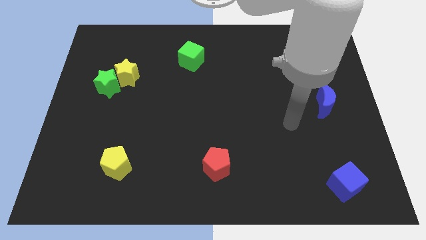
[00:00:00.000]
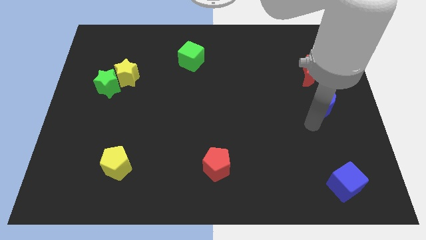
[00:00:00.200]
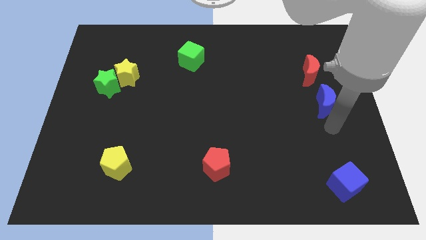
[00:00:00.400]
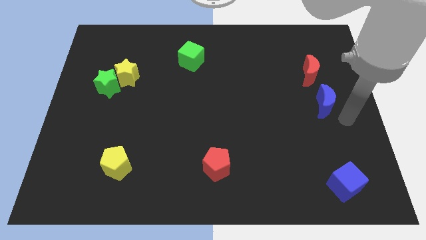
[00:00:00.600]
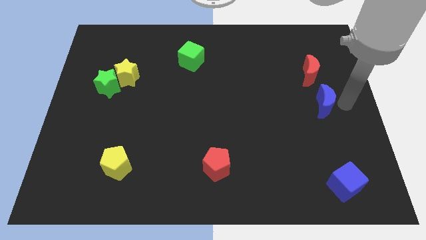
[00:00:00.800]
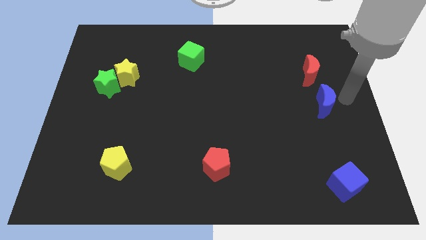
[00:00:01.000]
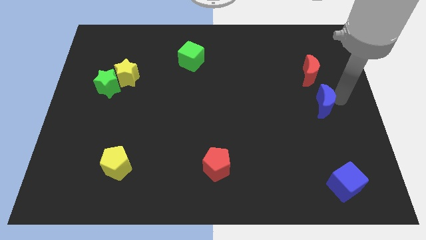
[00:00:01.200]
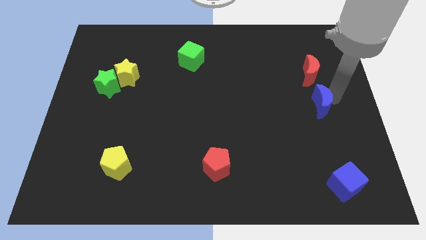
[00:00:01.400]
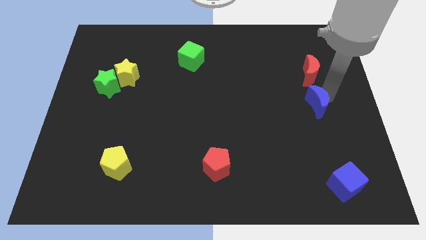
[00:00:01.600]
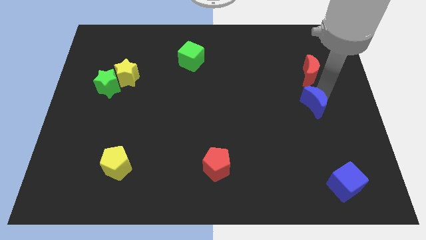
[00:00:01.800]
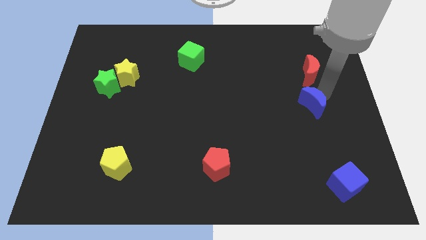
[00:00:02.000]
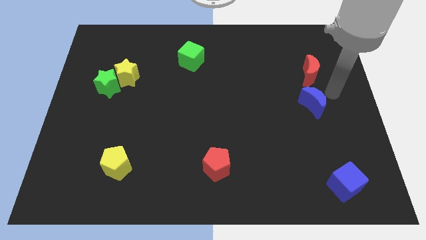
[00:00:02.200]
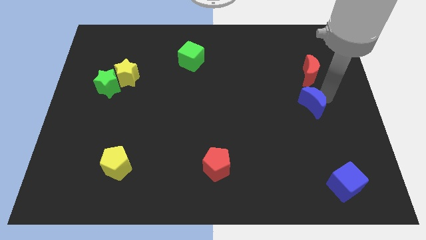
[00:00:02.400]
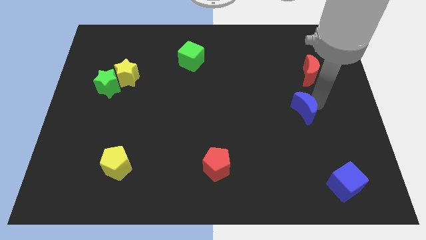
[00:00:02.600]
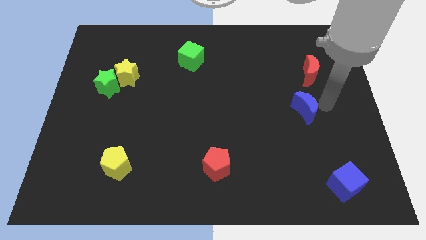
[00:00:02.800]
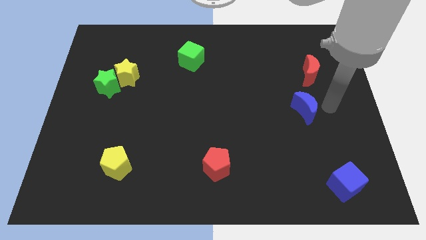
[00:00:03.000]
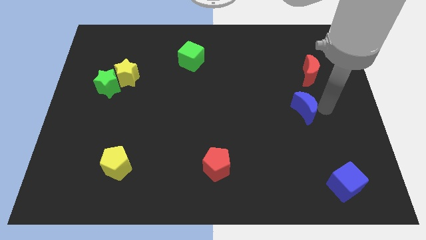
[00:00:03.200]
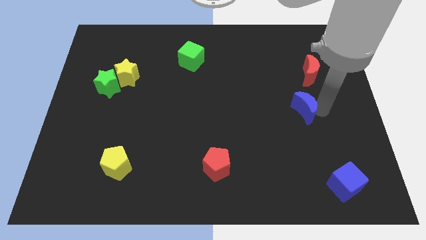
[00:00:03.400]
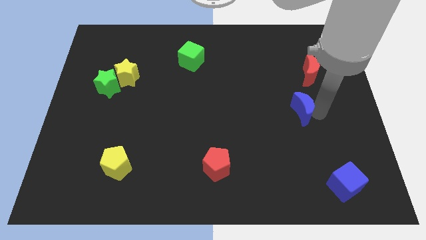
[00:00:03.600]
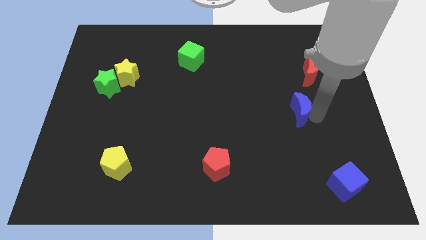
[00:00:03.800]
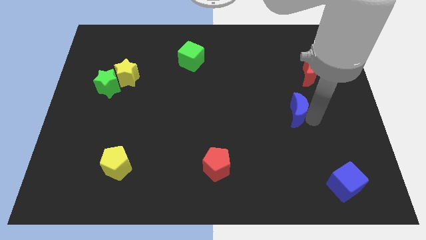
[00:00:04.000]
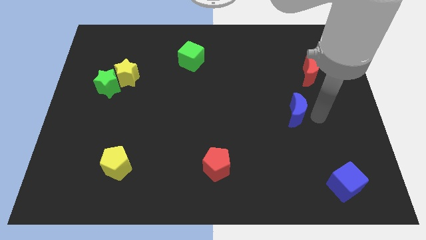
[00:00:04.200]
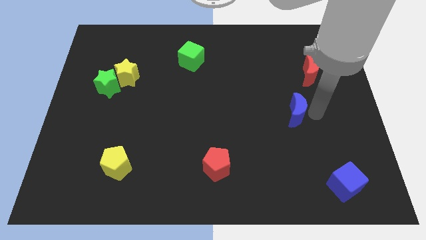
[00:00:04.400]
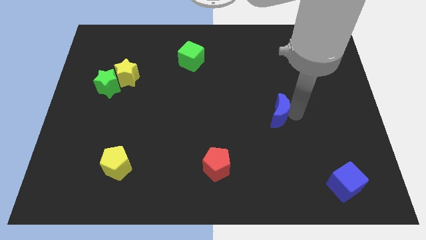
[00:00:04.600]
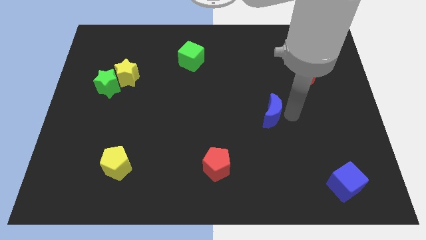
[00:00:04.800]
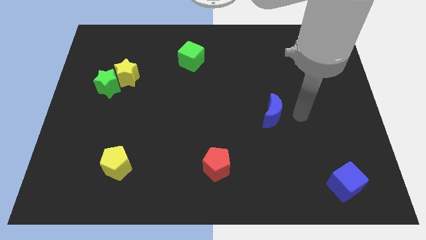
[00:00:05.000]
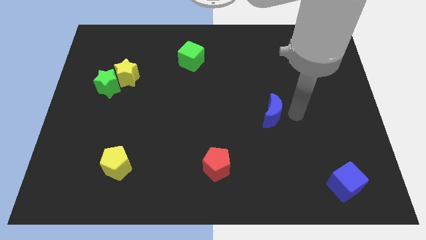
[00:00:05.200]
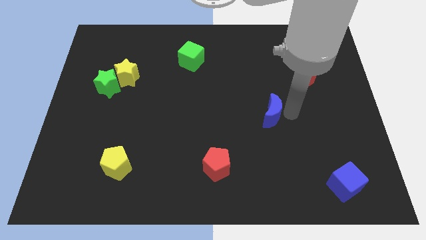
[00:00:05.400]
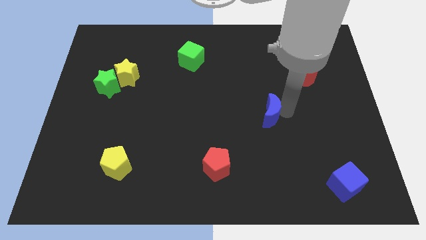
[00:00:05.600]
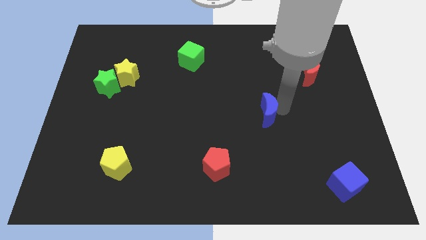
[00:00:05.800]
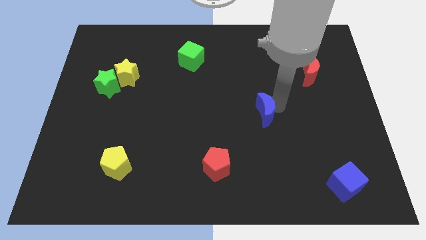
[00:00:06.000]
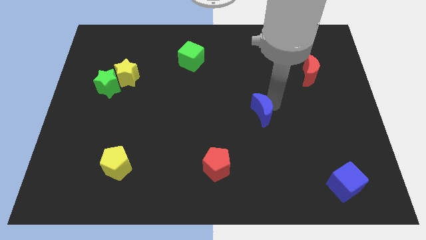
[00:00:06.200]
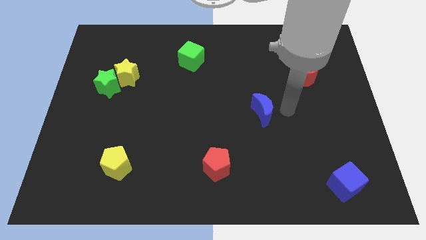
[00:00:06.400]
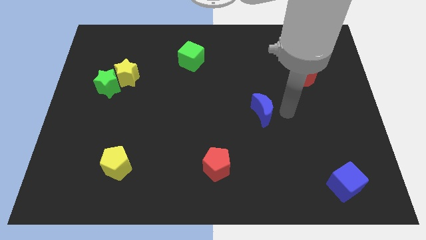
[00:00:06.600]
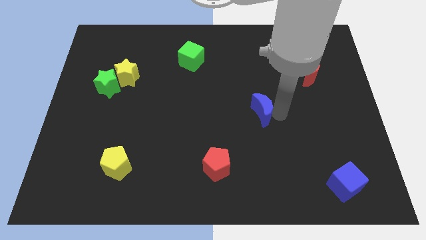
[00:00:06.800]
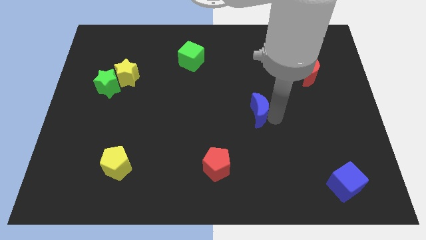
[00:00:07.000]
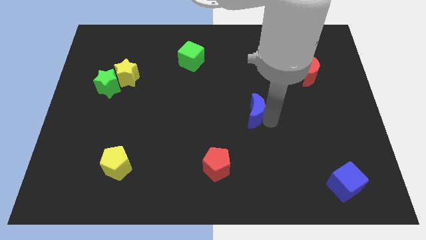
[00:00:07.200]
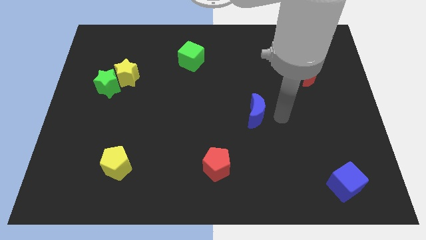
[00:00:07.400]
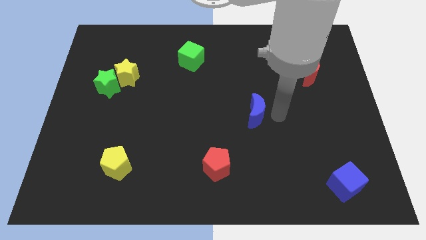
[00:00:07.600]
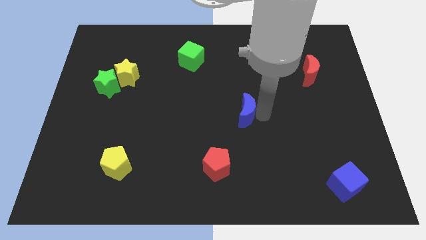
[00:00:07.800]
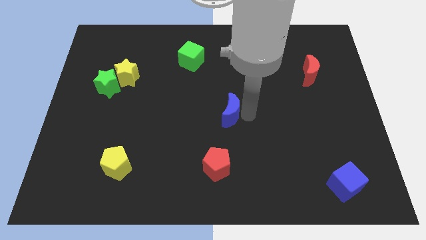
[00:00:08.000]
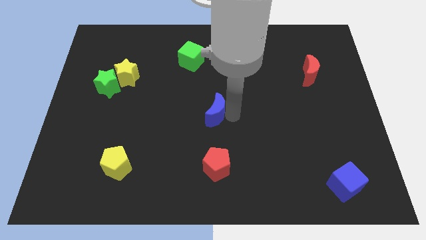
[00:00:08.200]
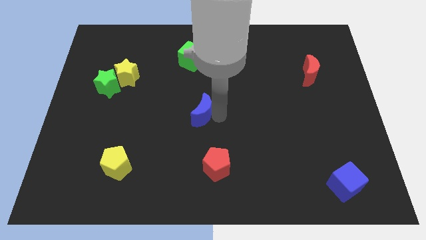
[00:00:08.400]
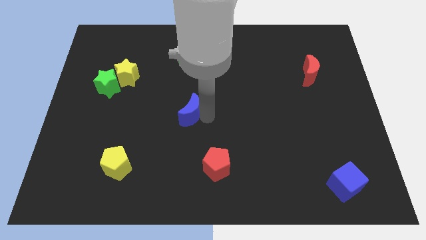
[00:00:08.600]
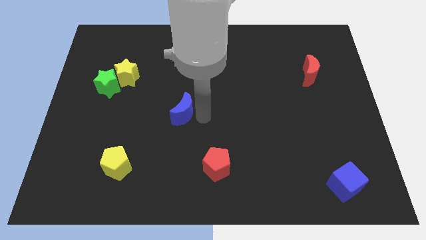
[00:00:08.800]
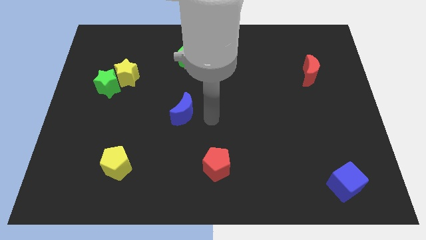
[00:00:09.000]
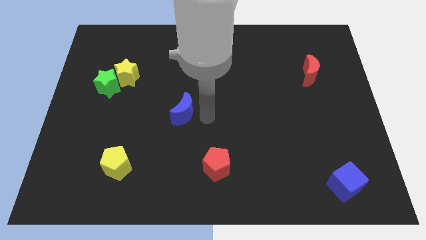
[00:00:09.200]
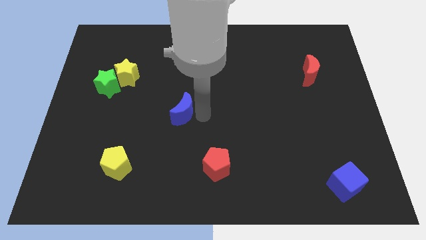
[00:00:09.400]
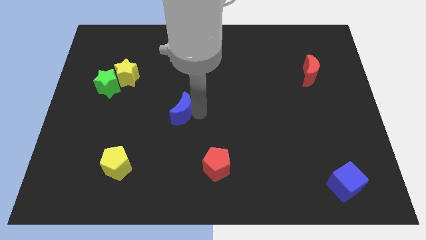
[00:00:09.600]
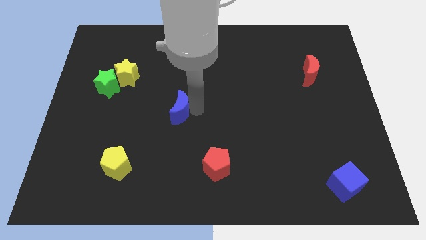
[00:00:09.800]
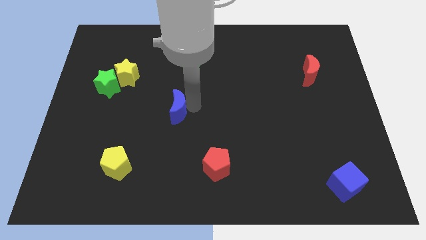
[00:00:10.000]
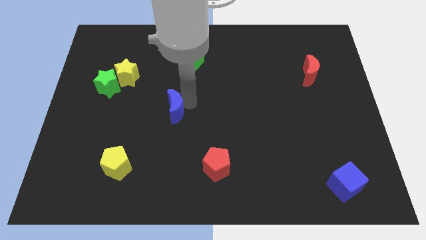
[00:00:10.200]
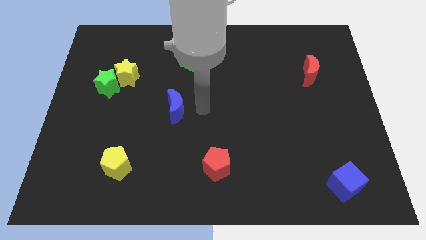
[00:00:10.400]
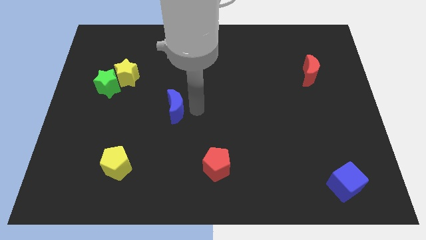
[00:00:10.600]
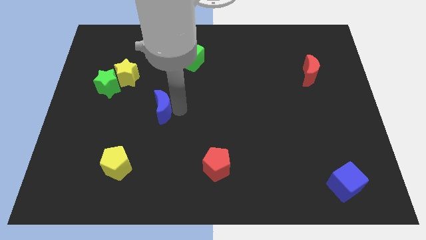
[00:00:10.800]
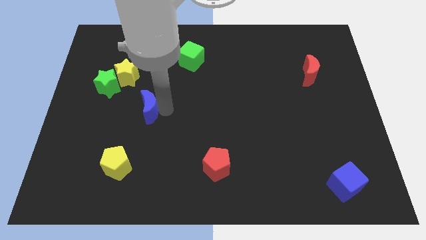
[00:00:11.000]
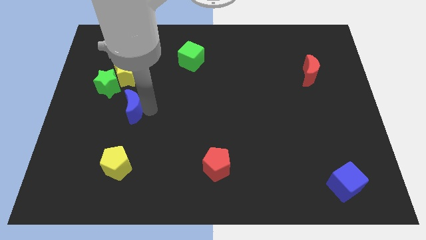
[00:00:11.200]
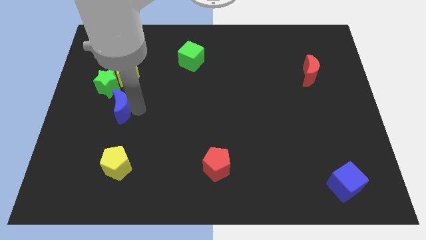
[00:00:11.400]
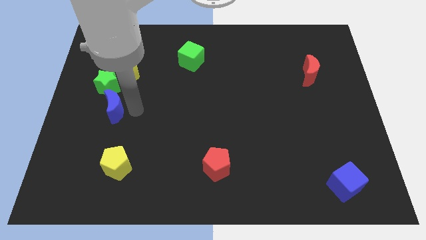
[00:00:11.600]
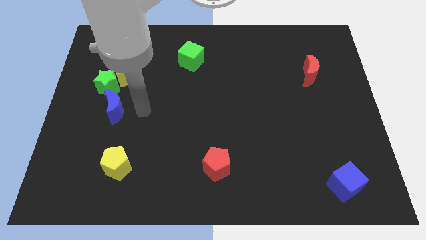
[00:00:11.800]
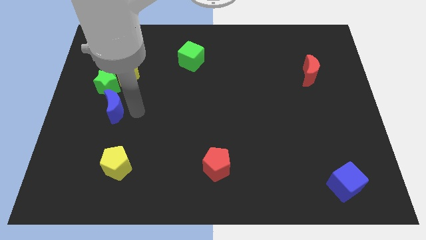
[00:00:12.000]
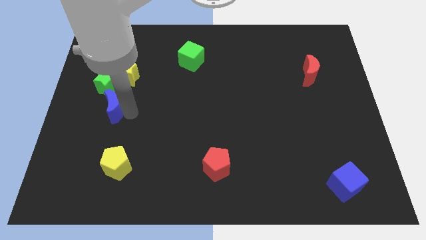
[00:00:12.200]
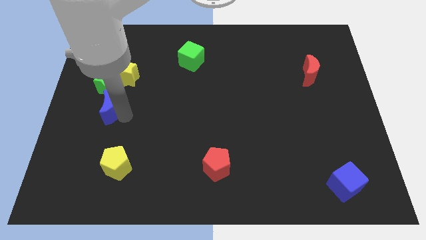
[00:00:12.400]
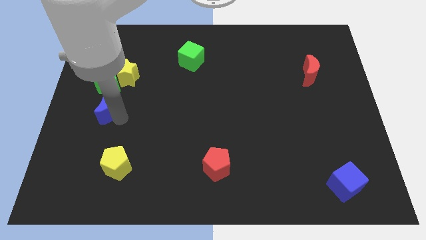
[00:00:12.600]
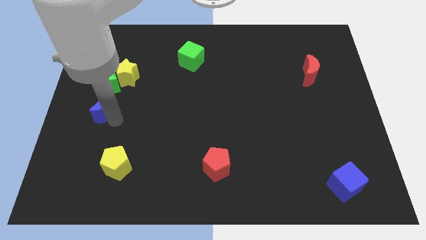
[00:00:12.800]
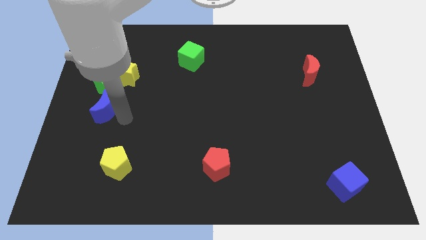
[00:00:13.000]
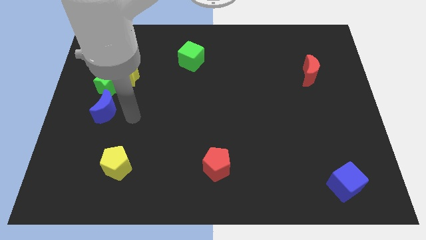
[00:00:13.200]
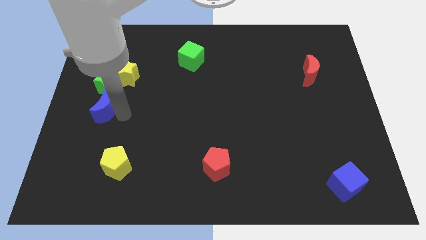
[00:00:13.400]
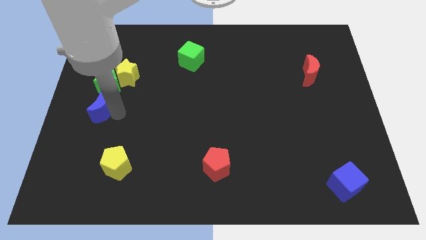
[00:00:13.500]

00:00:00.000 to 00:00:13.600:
push the blue moon to the left side
